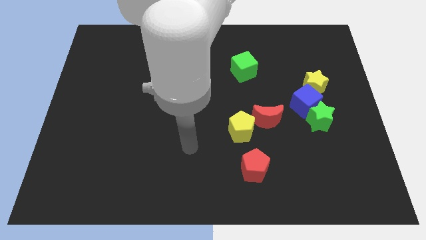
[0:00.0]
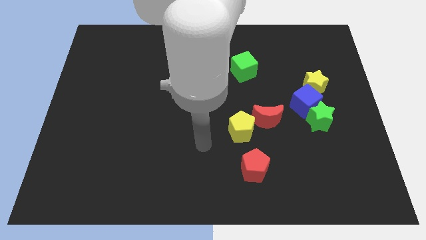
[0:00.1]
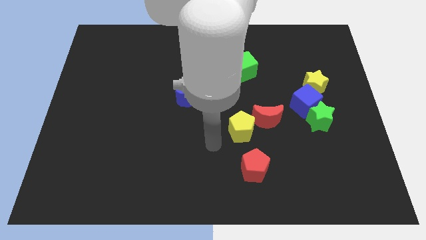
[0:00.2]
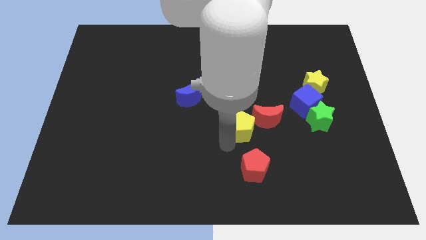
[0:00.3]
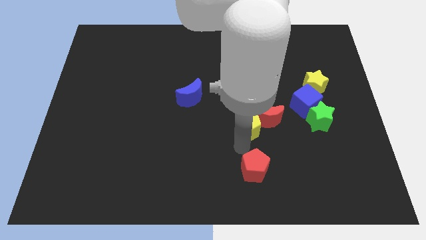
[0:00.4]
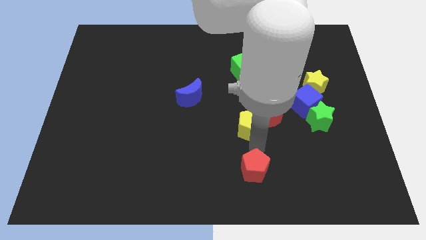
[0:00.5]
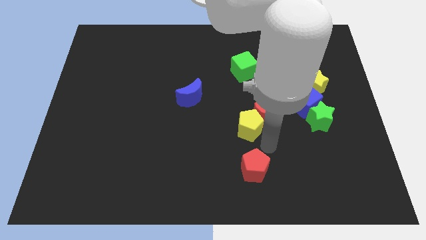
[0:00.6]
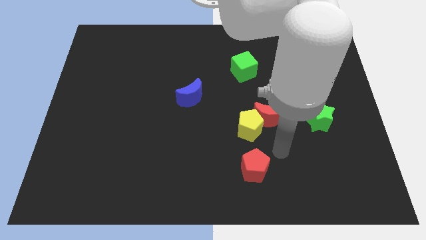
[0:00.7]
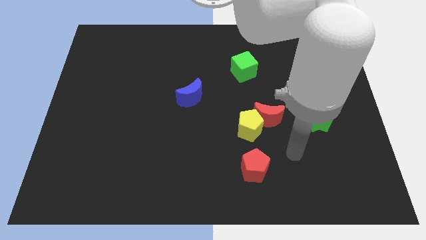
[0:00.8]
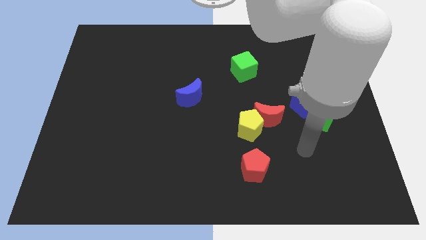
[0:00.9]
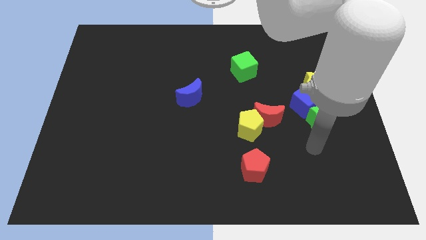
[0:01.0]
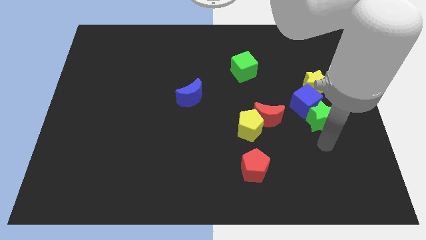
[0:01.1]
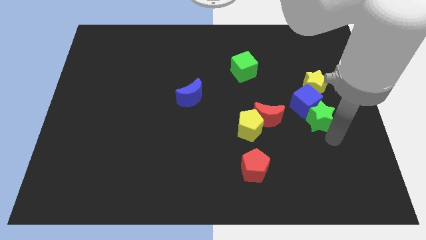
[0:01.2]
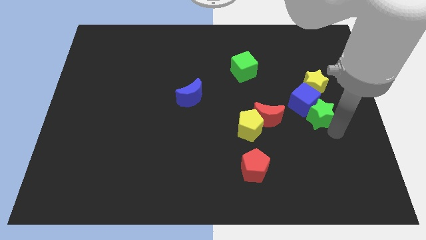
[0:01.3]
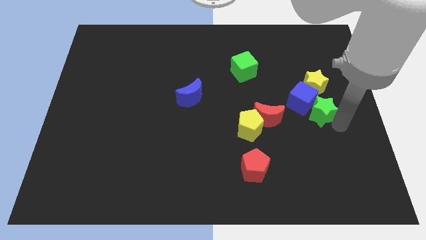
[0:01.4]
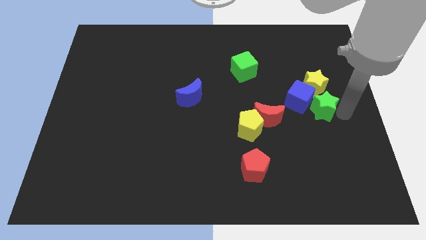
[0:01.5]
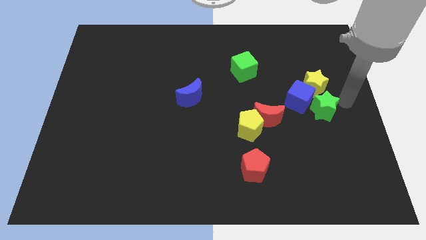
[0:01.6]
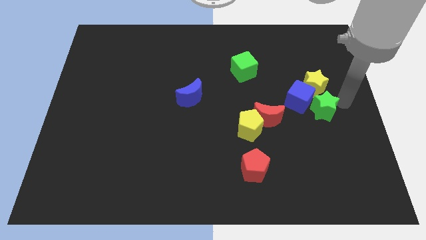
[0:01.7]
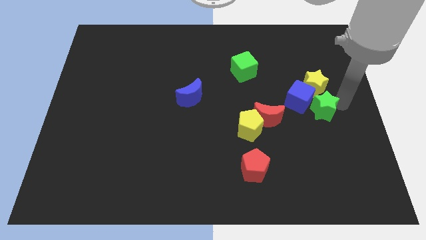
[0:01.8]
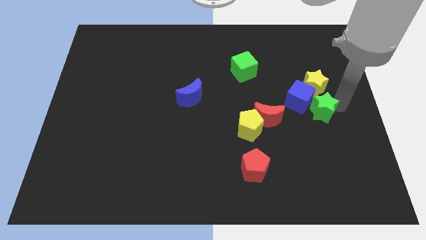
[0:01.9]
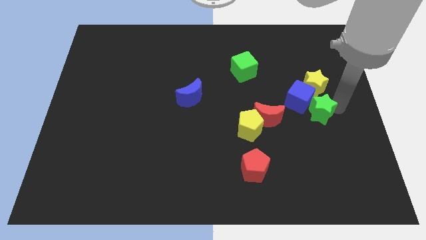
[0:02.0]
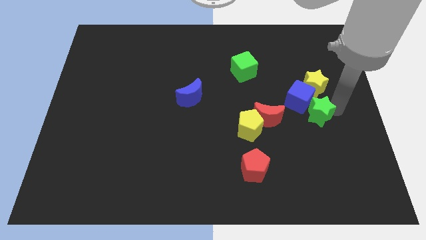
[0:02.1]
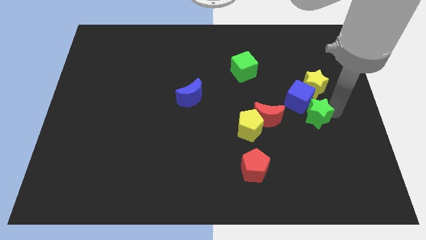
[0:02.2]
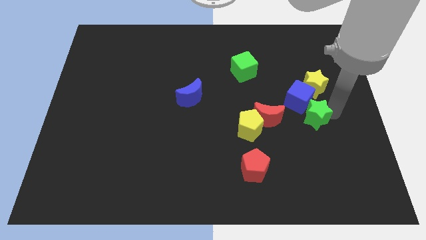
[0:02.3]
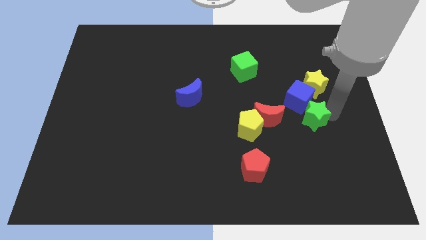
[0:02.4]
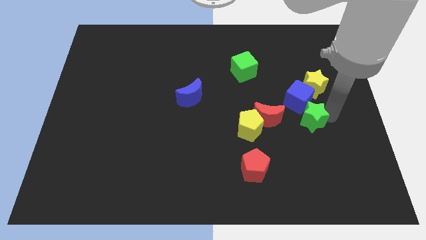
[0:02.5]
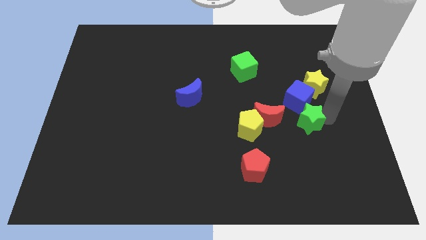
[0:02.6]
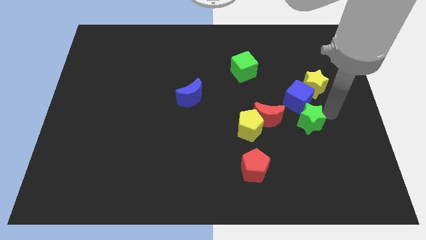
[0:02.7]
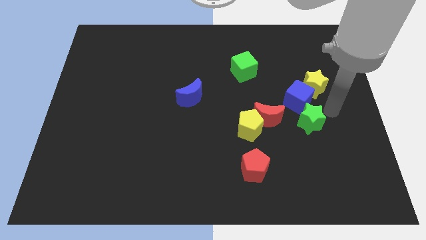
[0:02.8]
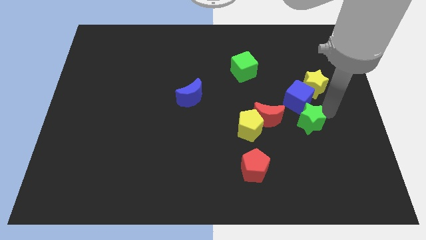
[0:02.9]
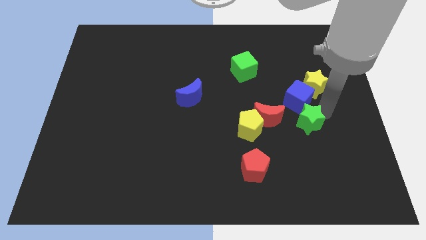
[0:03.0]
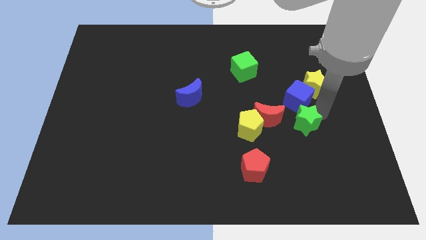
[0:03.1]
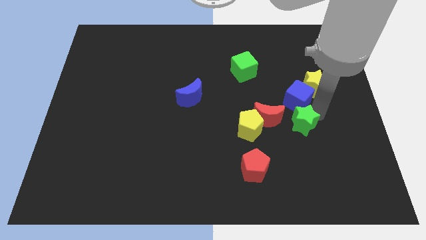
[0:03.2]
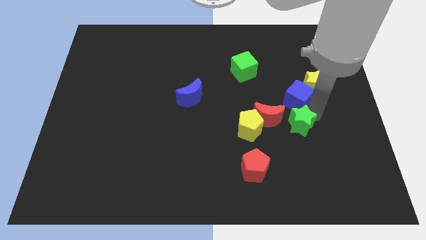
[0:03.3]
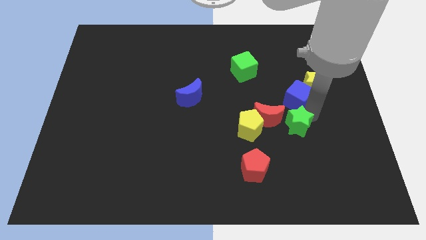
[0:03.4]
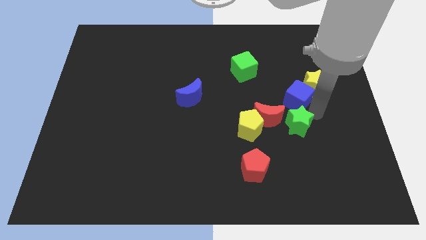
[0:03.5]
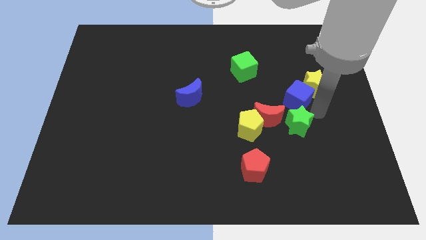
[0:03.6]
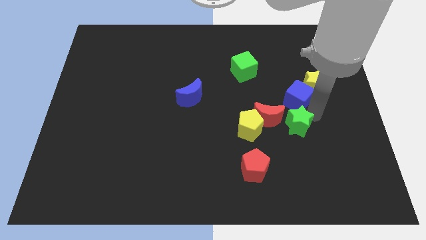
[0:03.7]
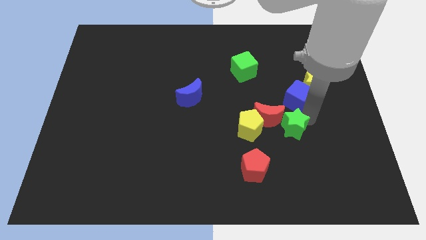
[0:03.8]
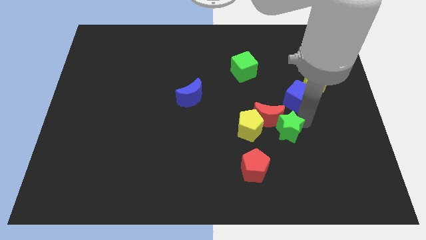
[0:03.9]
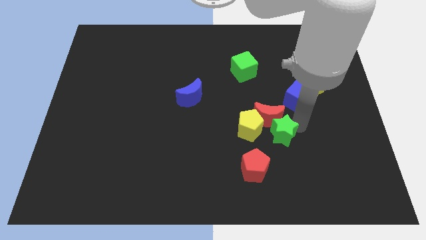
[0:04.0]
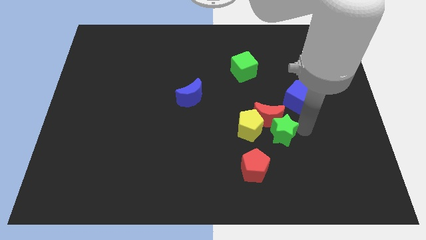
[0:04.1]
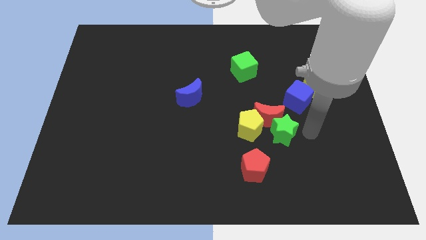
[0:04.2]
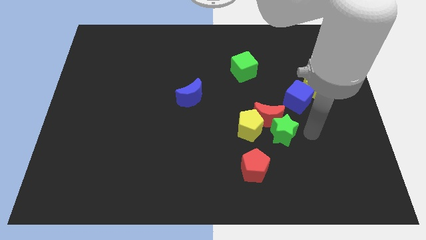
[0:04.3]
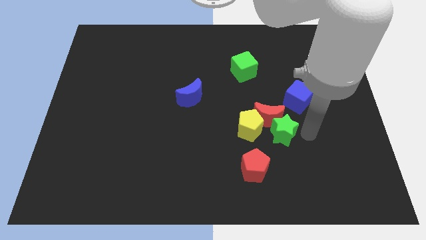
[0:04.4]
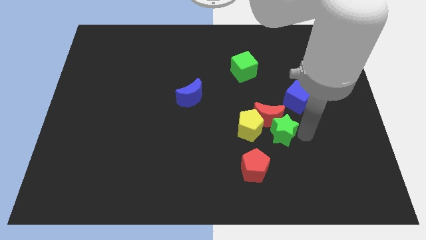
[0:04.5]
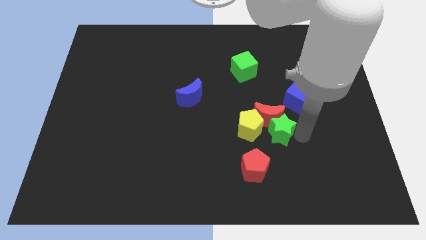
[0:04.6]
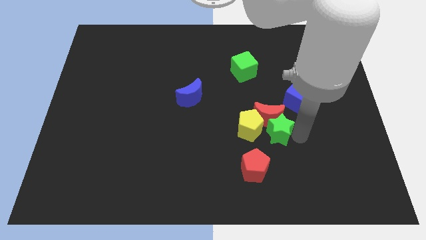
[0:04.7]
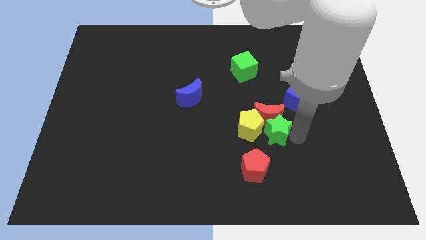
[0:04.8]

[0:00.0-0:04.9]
move the green star next to the yellow pentagon

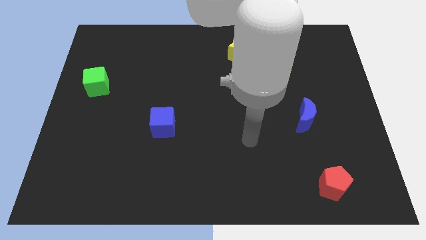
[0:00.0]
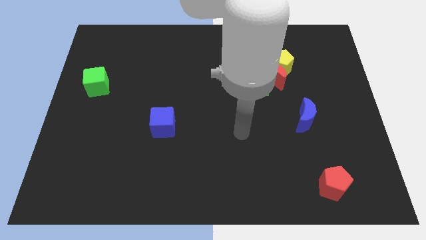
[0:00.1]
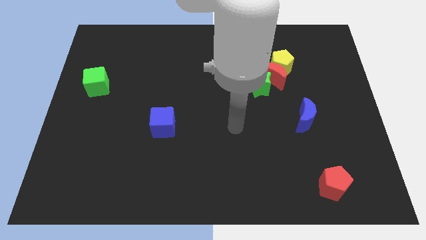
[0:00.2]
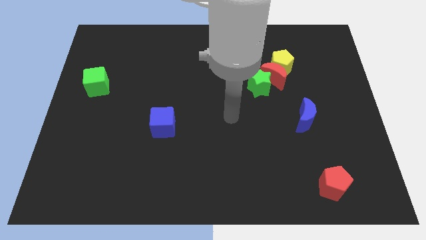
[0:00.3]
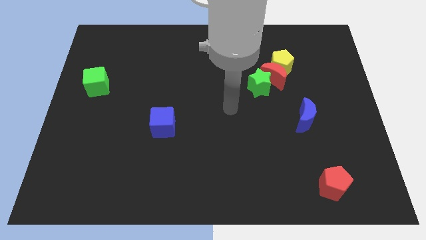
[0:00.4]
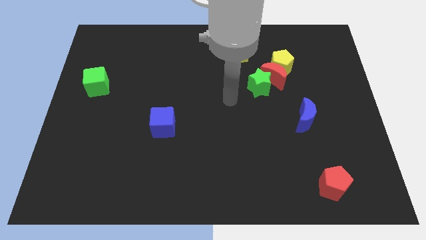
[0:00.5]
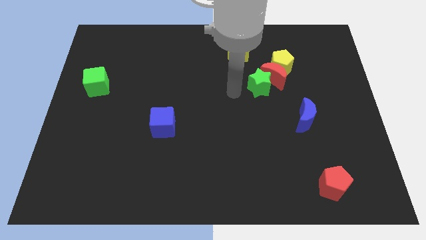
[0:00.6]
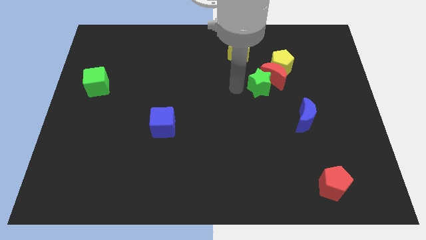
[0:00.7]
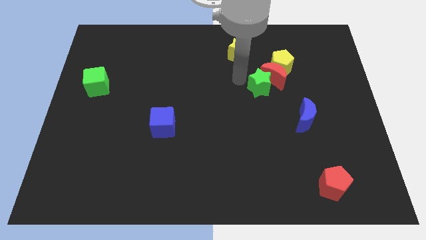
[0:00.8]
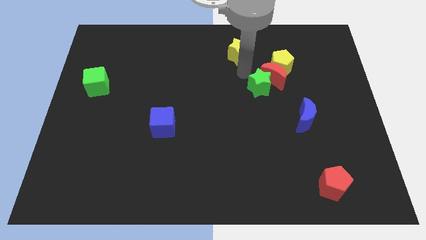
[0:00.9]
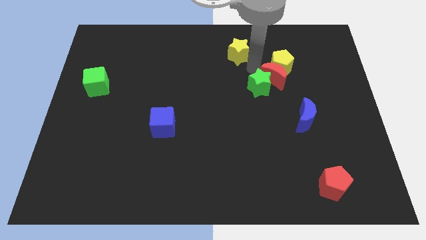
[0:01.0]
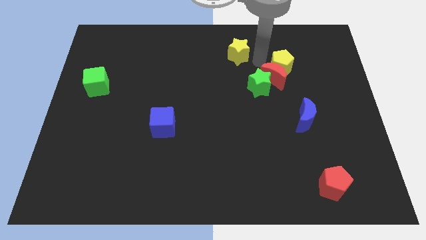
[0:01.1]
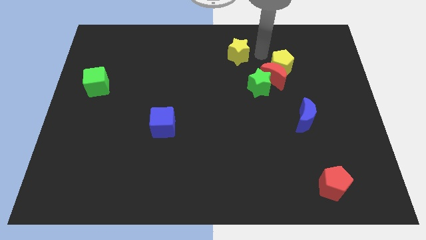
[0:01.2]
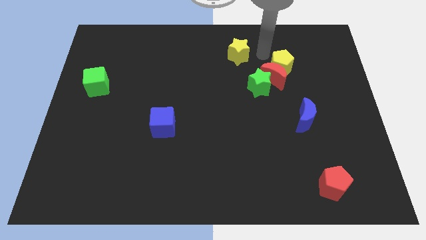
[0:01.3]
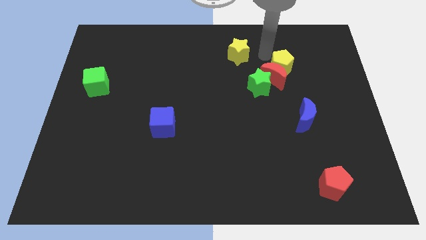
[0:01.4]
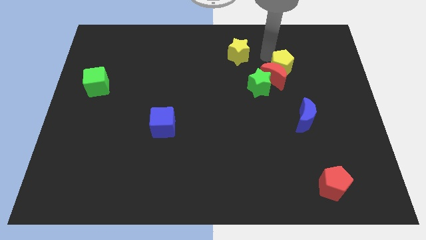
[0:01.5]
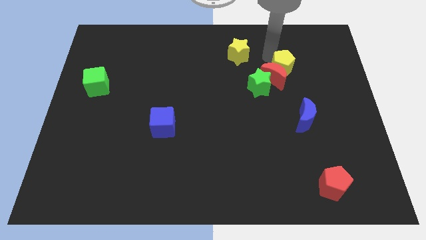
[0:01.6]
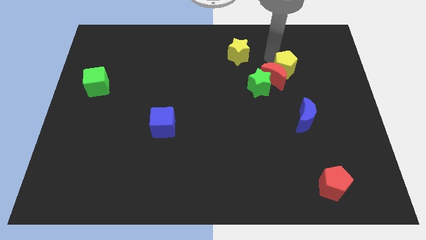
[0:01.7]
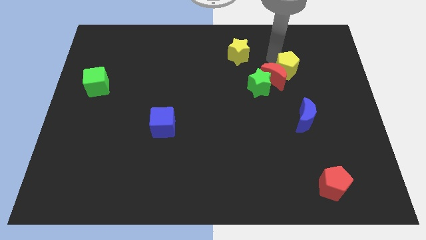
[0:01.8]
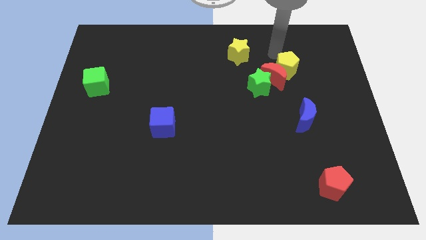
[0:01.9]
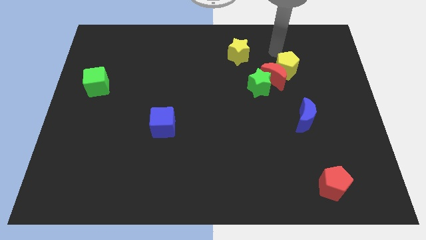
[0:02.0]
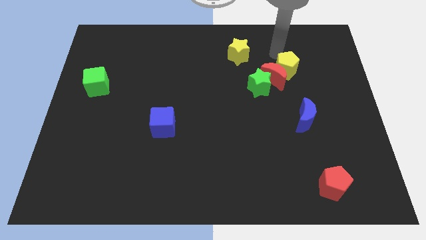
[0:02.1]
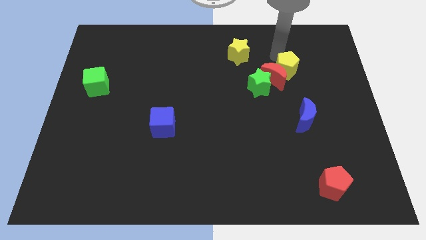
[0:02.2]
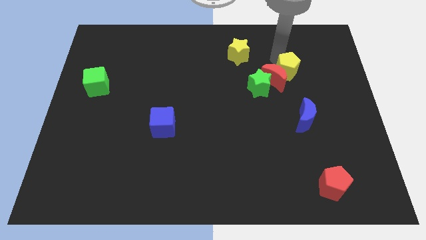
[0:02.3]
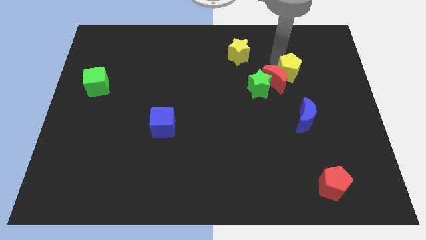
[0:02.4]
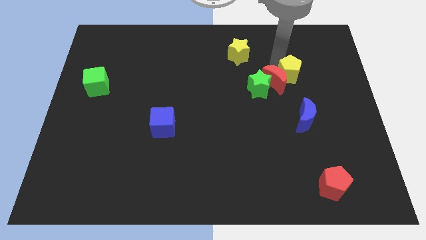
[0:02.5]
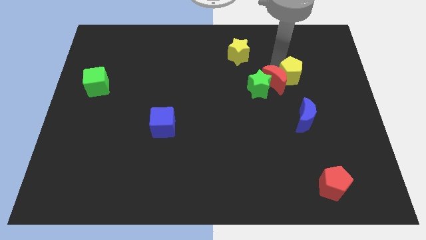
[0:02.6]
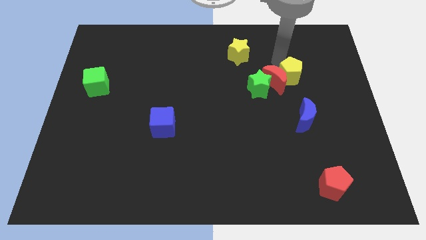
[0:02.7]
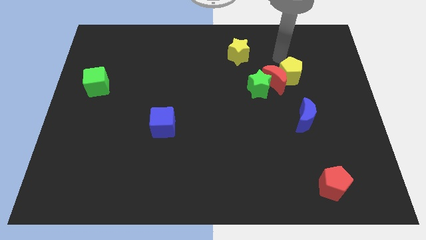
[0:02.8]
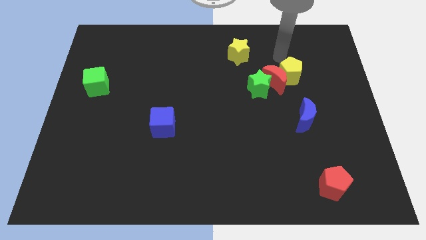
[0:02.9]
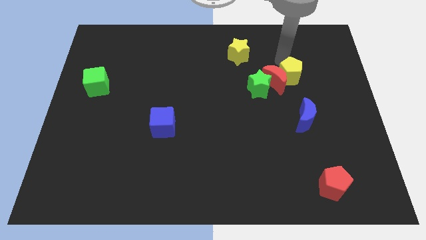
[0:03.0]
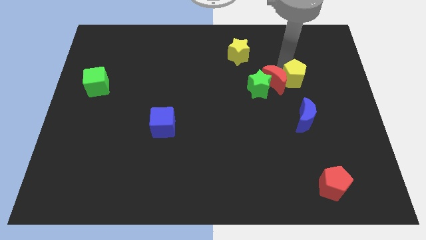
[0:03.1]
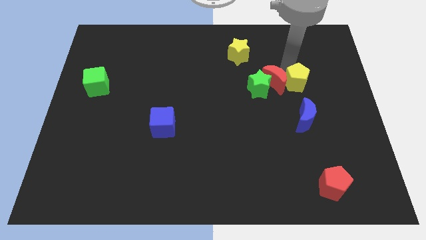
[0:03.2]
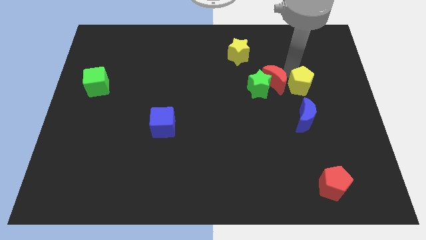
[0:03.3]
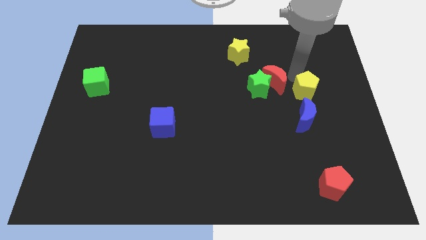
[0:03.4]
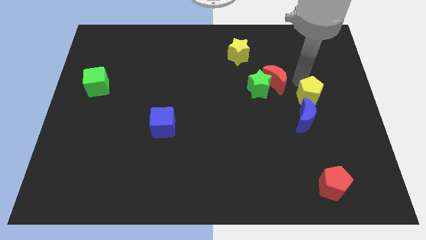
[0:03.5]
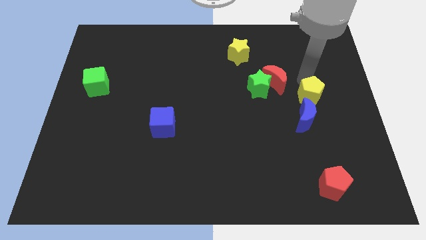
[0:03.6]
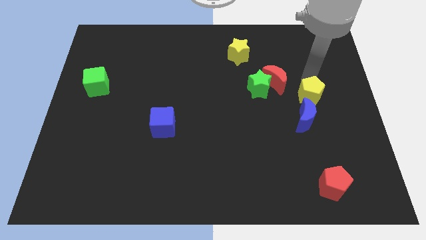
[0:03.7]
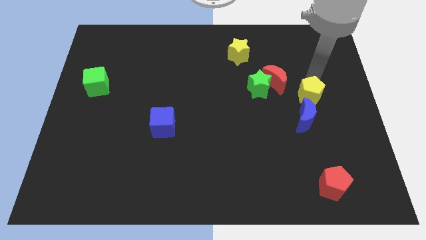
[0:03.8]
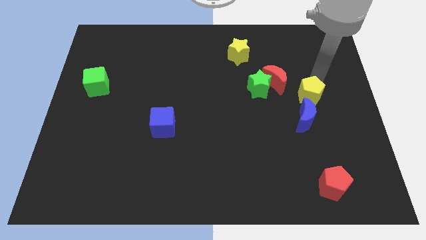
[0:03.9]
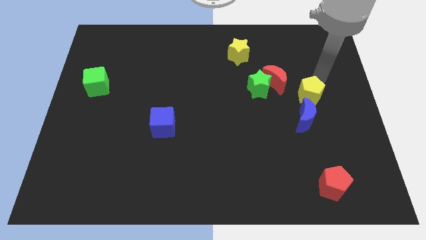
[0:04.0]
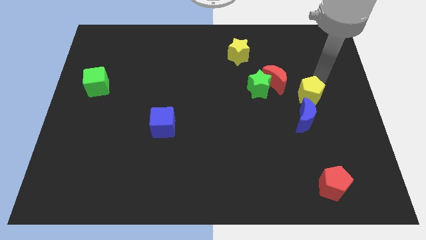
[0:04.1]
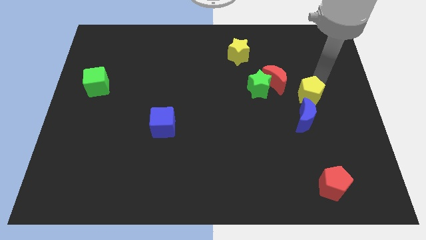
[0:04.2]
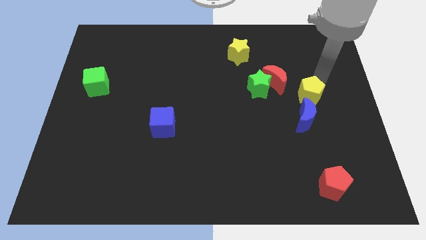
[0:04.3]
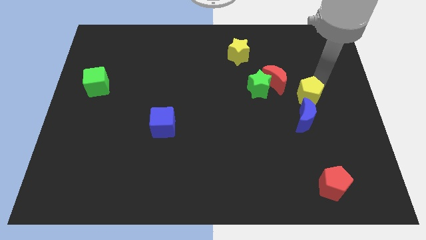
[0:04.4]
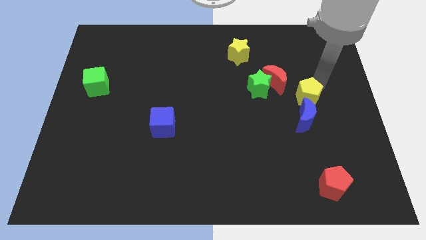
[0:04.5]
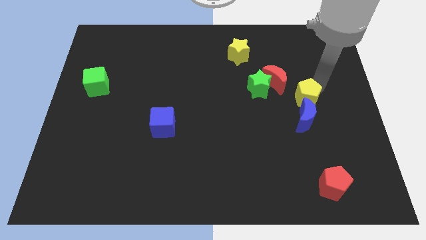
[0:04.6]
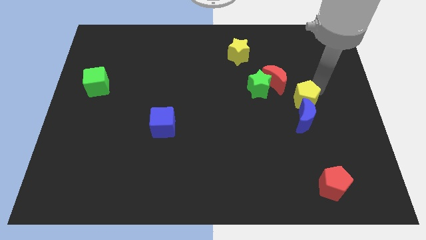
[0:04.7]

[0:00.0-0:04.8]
push the yellow pentagon next to the blue moon
